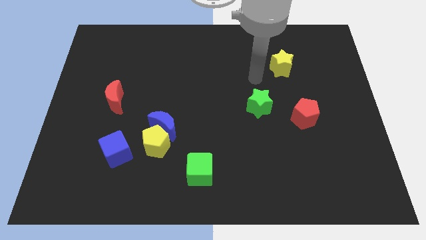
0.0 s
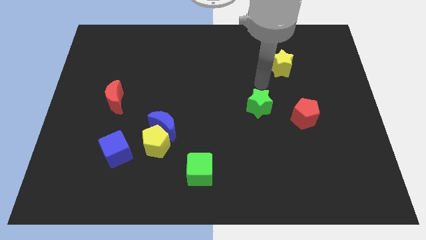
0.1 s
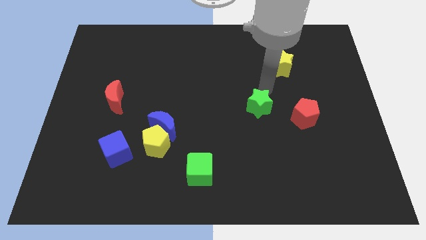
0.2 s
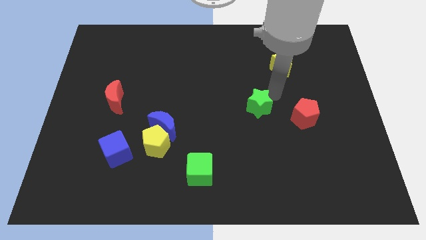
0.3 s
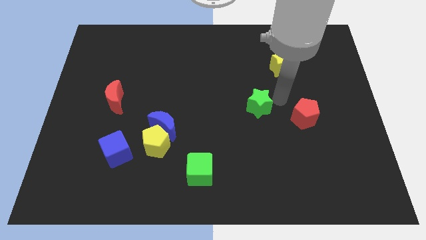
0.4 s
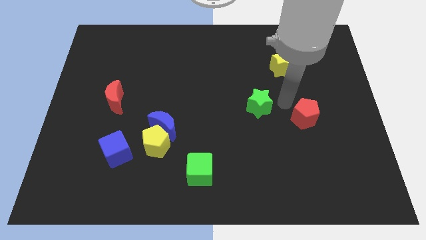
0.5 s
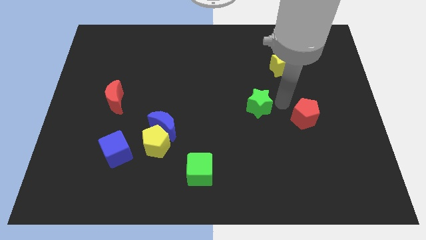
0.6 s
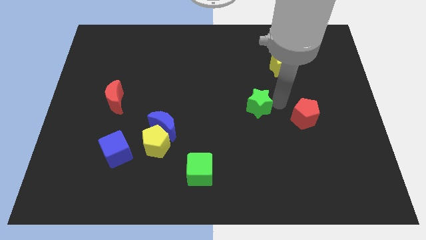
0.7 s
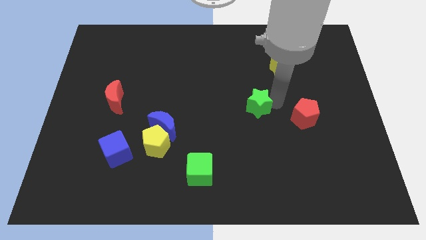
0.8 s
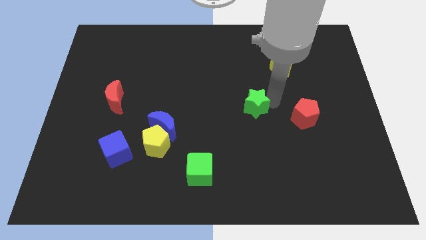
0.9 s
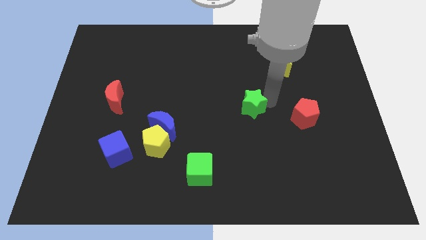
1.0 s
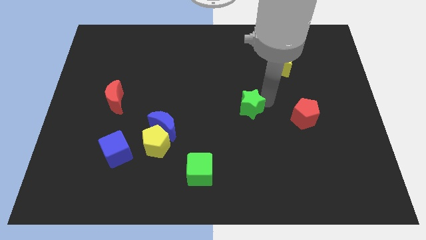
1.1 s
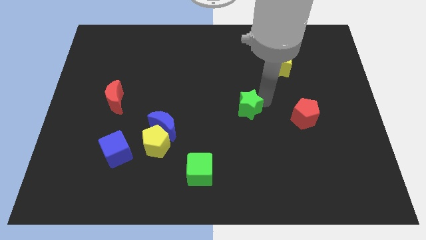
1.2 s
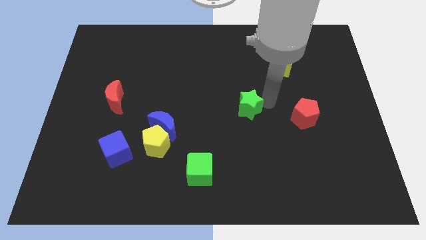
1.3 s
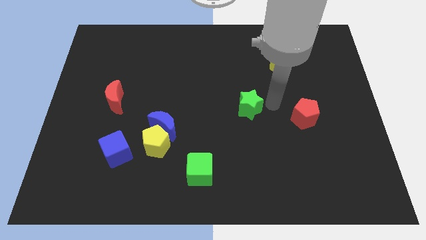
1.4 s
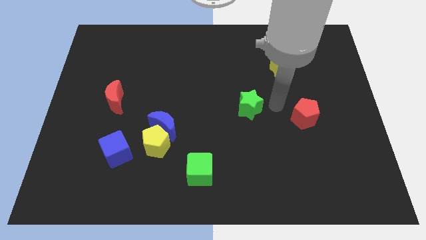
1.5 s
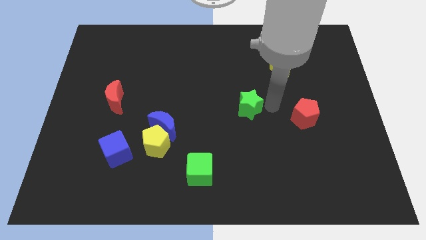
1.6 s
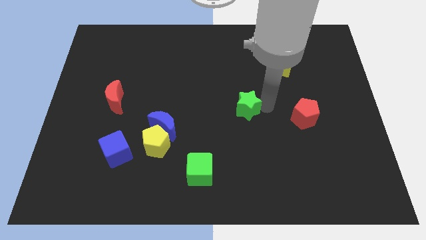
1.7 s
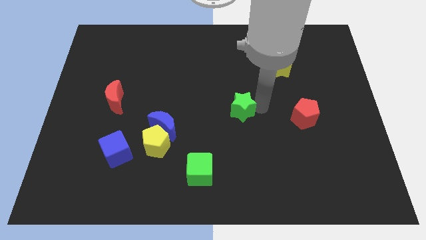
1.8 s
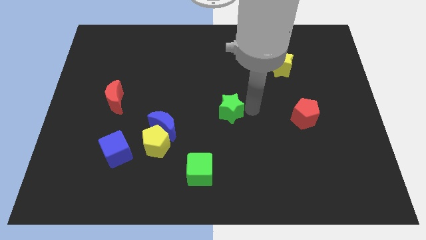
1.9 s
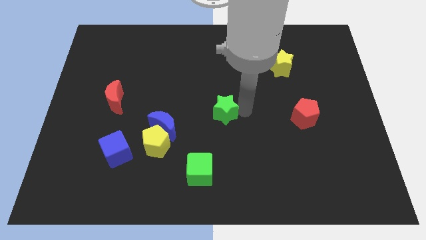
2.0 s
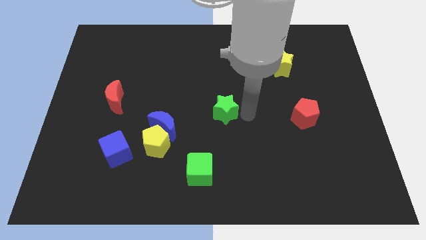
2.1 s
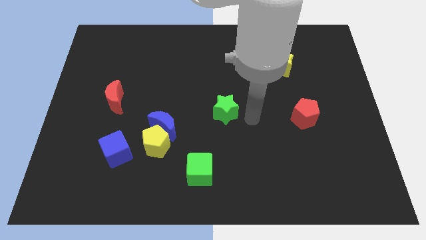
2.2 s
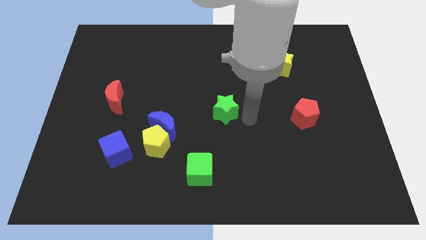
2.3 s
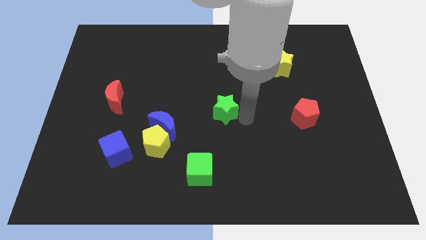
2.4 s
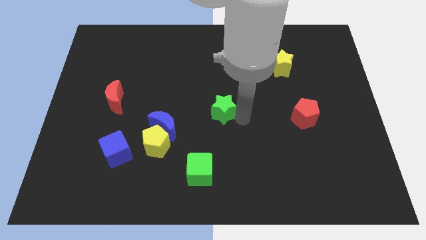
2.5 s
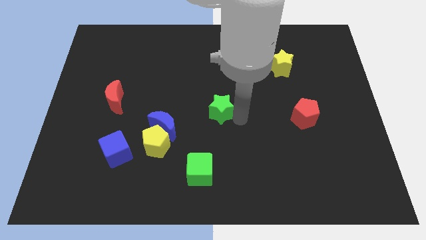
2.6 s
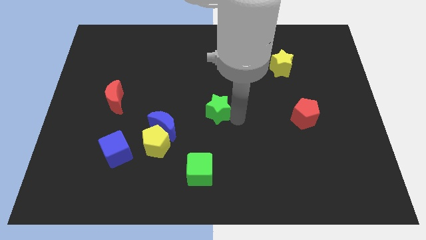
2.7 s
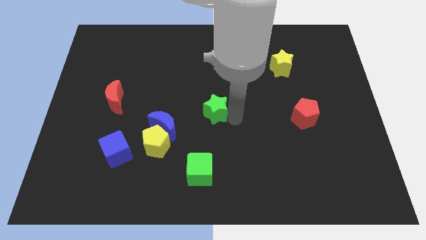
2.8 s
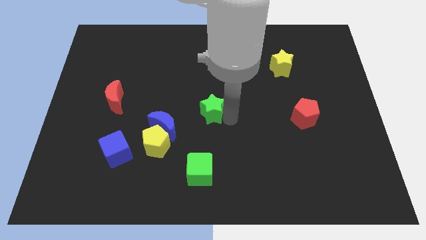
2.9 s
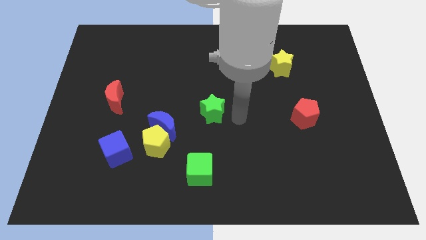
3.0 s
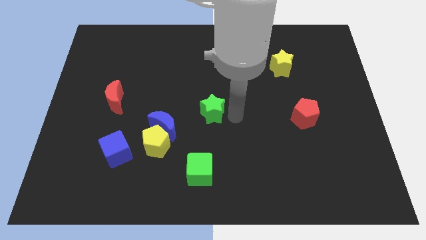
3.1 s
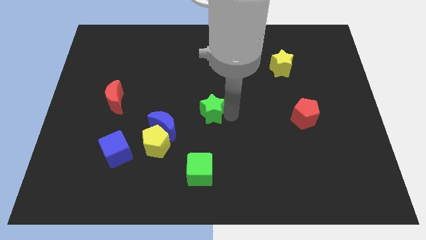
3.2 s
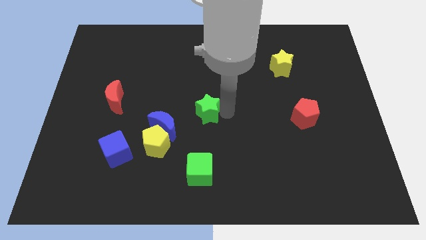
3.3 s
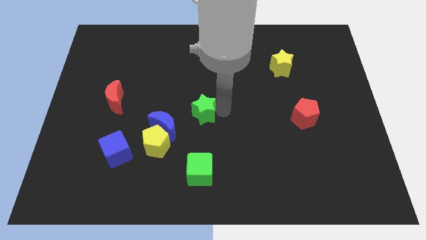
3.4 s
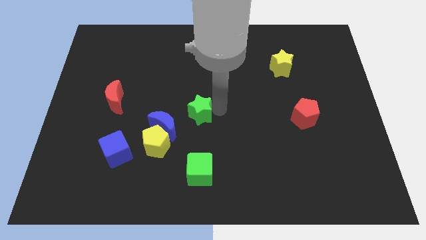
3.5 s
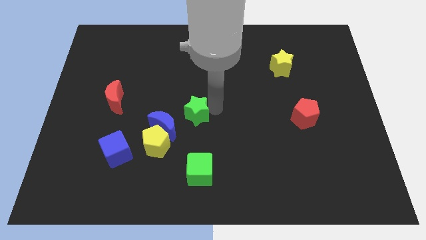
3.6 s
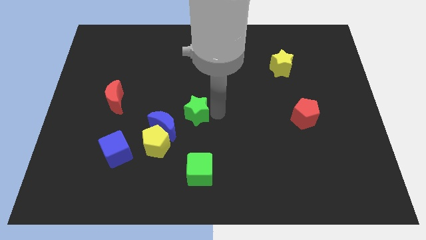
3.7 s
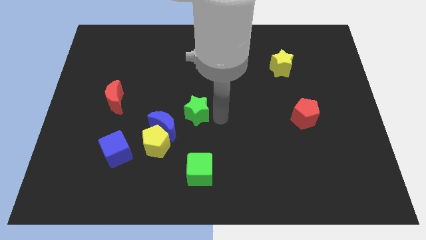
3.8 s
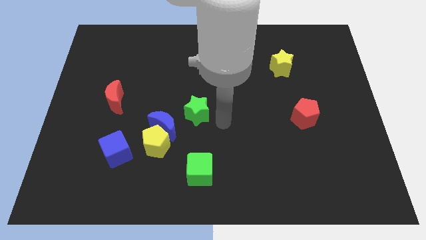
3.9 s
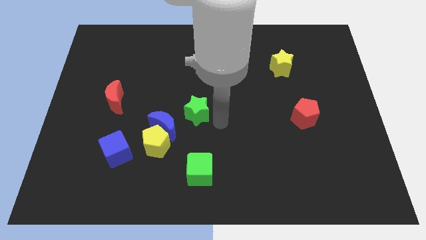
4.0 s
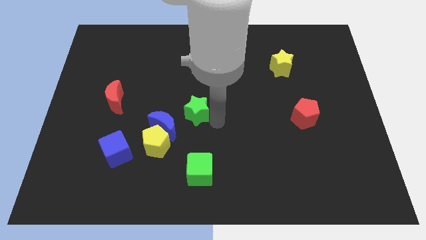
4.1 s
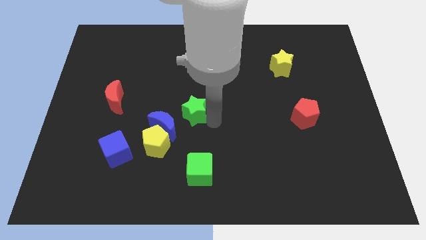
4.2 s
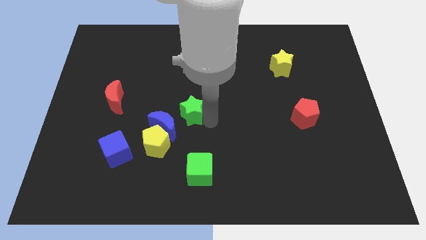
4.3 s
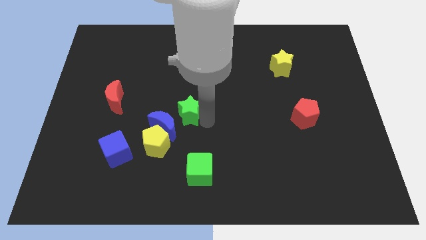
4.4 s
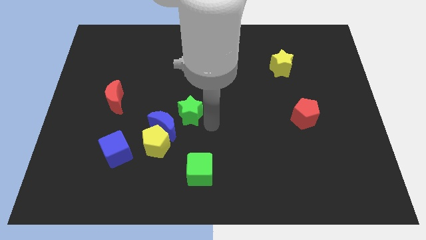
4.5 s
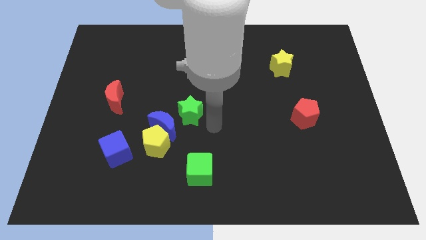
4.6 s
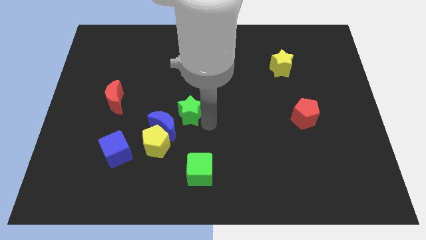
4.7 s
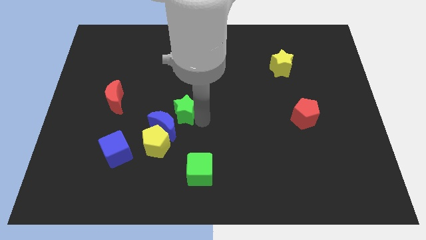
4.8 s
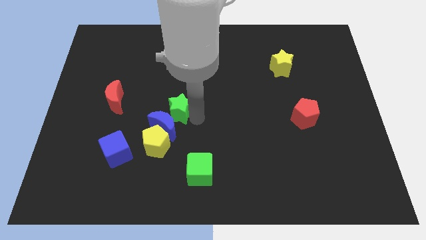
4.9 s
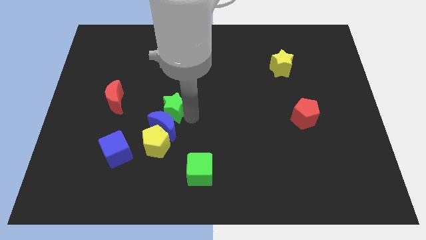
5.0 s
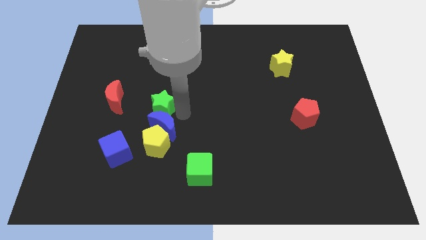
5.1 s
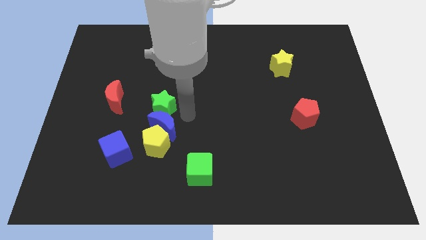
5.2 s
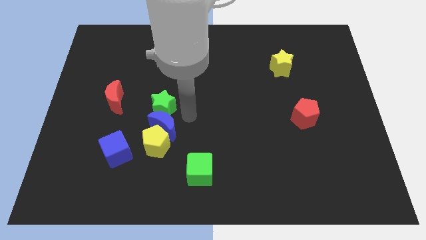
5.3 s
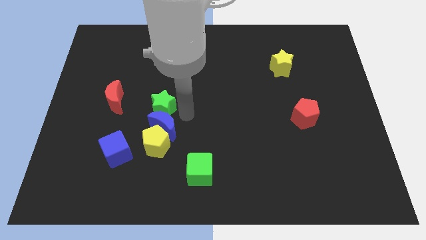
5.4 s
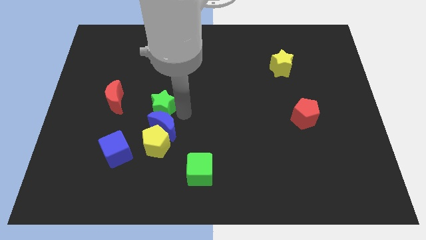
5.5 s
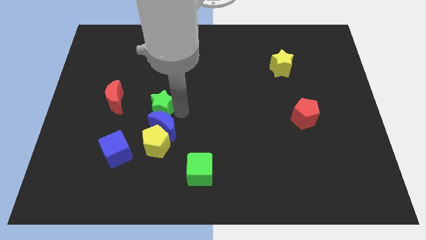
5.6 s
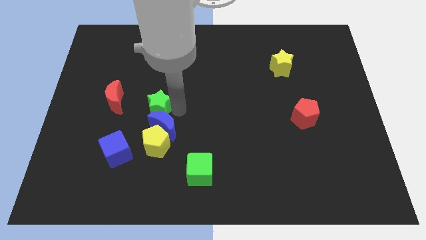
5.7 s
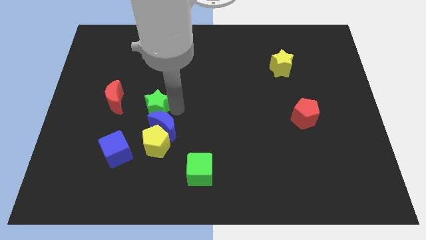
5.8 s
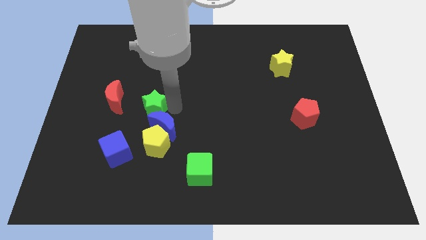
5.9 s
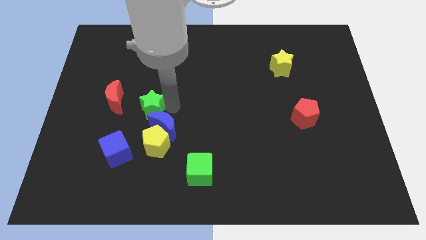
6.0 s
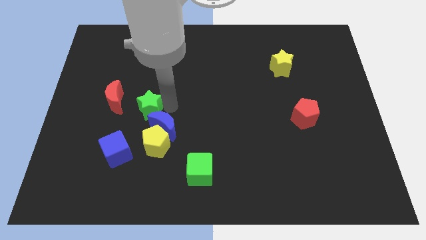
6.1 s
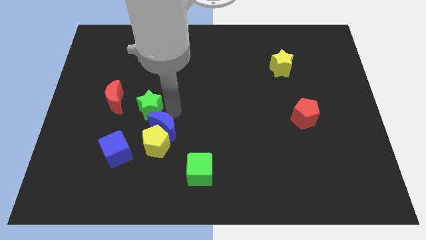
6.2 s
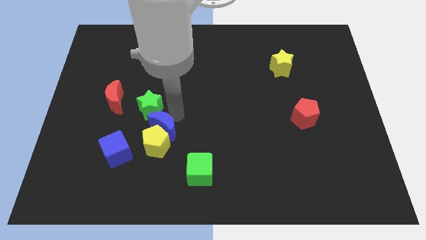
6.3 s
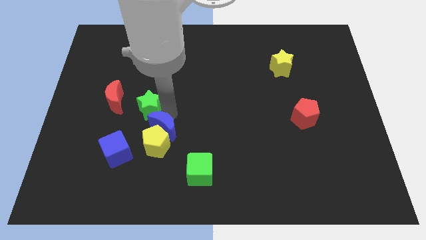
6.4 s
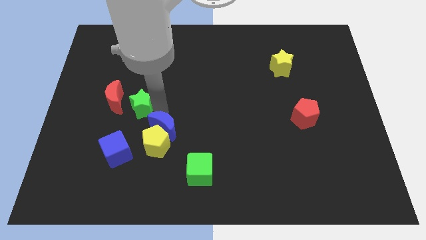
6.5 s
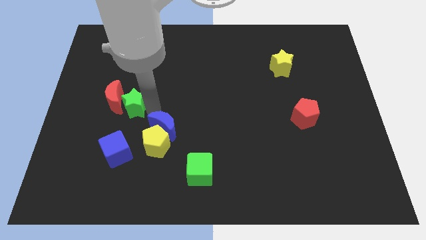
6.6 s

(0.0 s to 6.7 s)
move the green star towards the red moon
